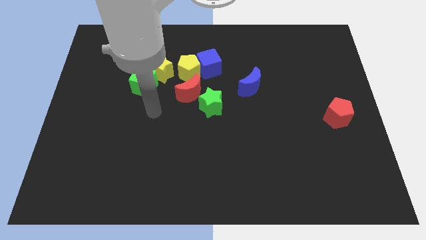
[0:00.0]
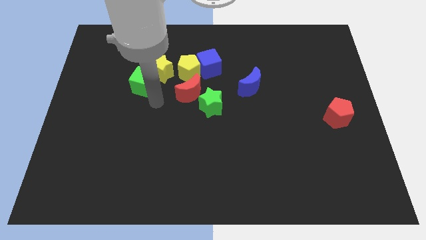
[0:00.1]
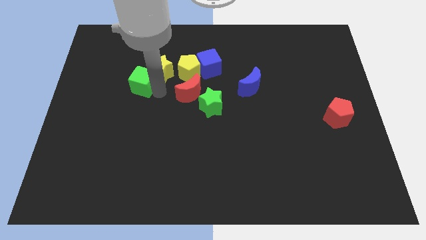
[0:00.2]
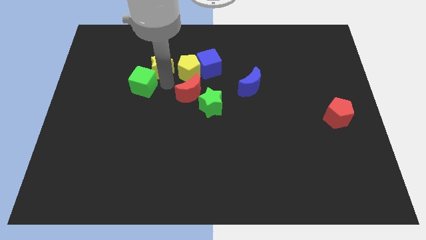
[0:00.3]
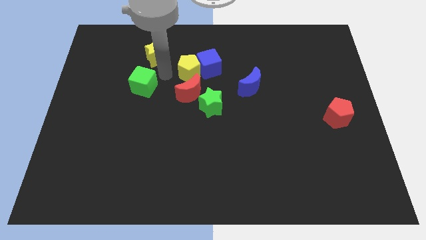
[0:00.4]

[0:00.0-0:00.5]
move the green cube away from the yellow star

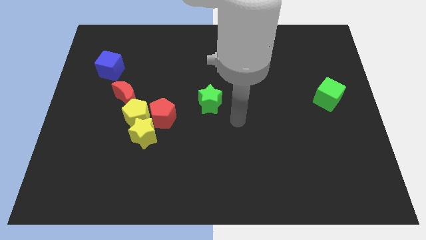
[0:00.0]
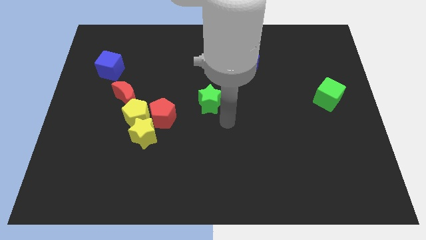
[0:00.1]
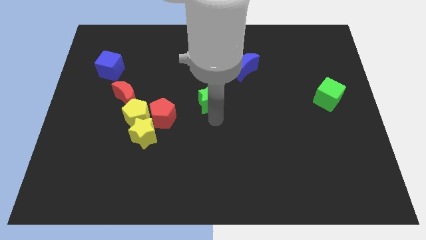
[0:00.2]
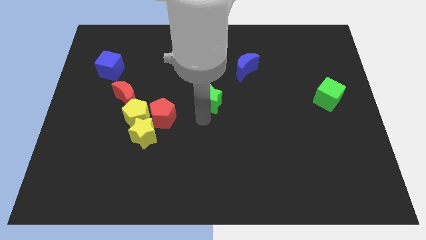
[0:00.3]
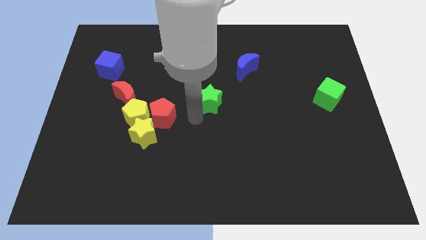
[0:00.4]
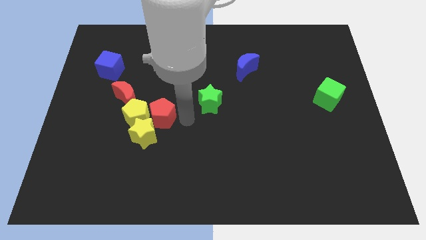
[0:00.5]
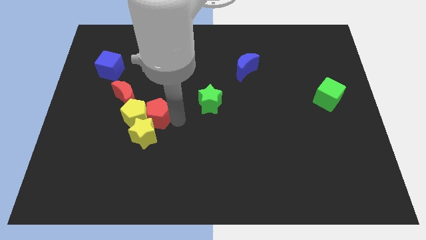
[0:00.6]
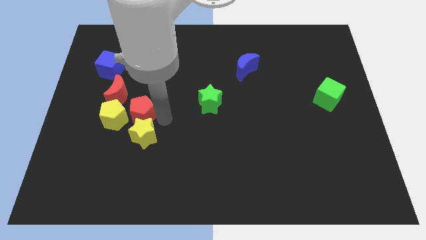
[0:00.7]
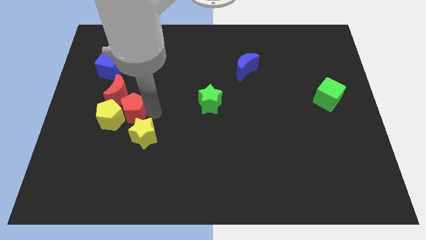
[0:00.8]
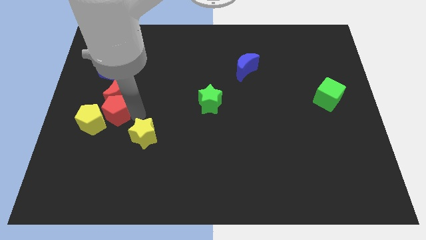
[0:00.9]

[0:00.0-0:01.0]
pull the yellow star apart from the yellow pentagon and red pentagon

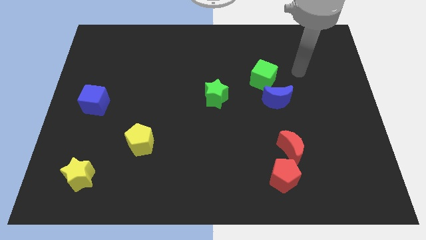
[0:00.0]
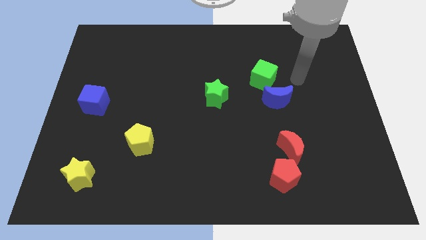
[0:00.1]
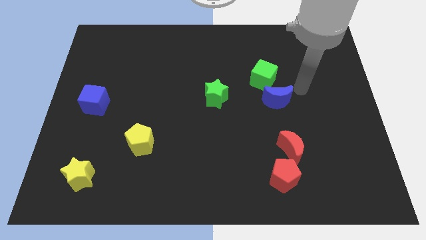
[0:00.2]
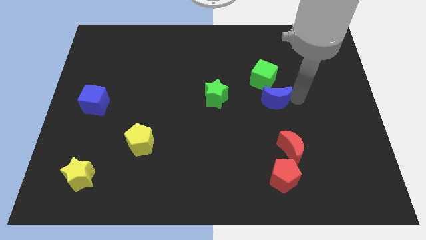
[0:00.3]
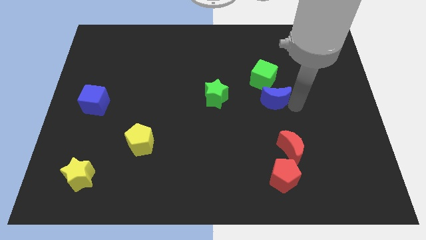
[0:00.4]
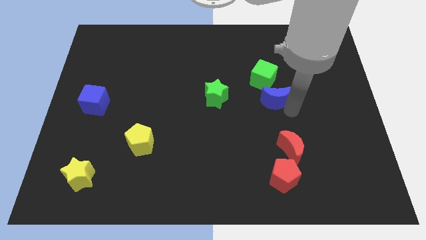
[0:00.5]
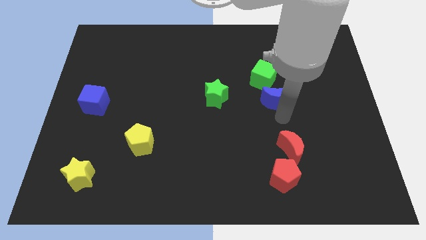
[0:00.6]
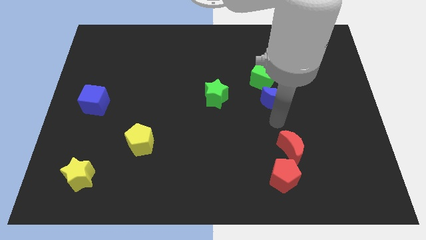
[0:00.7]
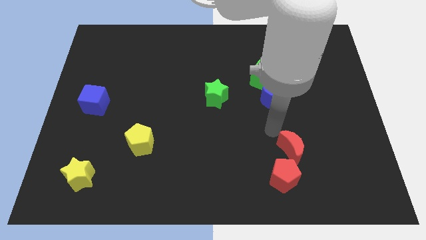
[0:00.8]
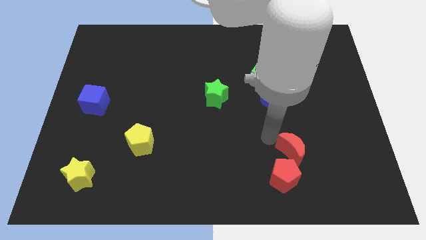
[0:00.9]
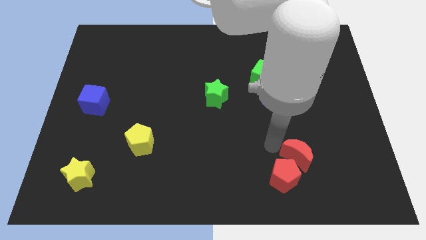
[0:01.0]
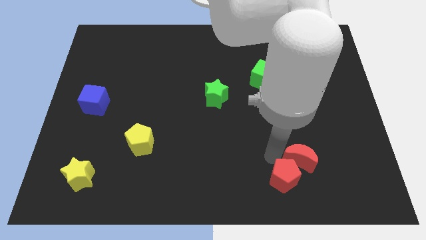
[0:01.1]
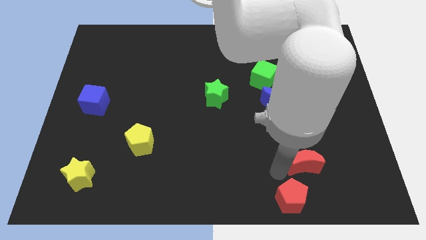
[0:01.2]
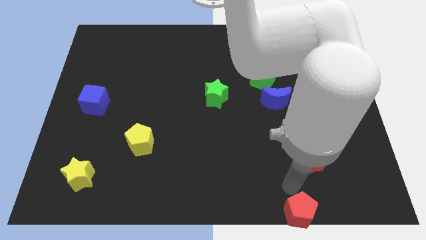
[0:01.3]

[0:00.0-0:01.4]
move the red moon away from the red pentagon

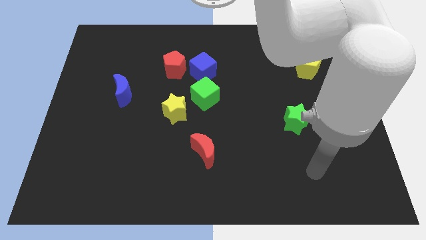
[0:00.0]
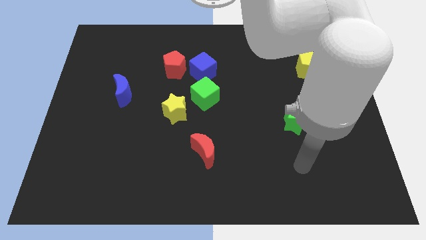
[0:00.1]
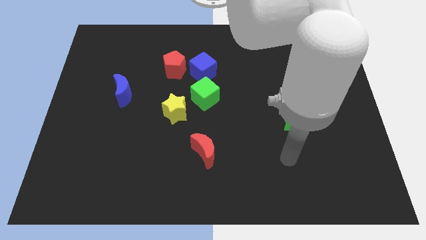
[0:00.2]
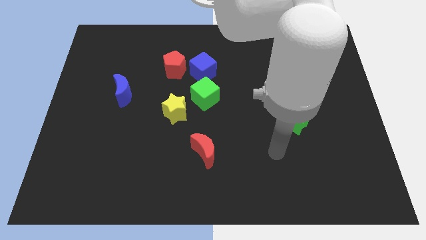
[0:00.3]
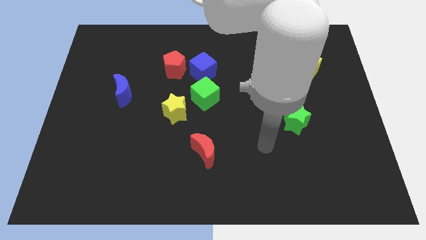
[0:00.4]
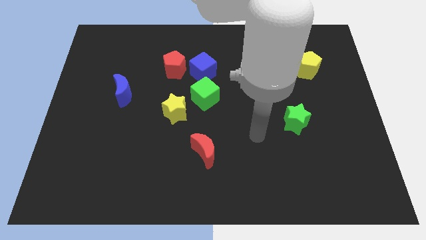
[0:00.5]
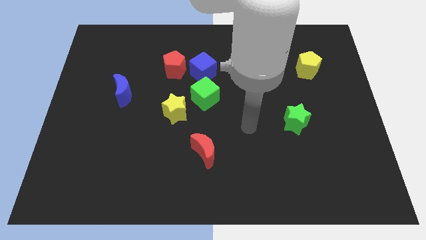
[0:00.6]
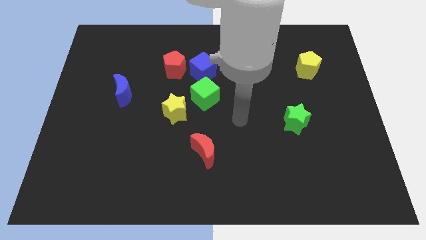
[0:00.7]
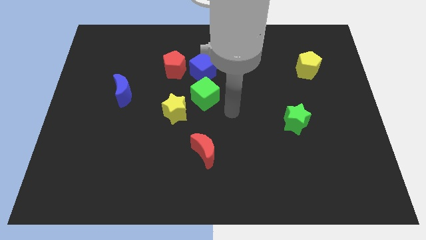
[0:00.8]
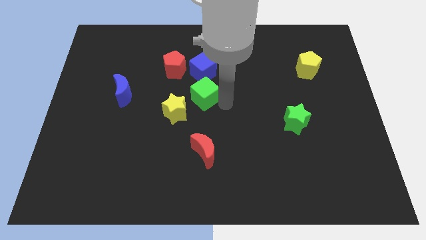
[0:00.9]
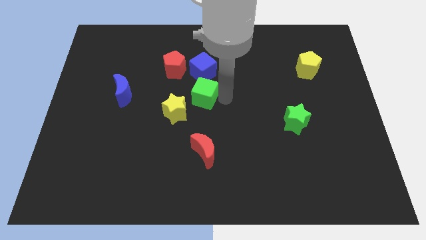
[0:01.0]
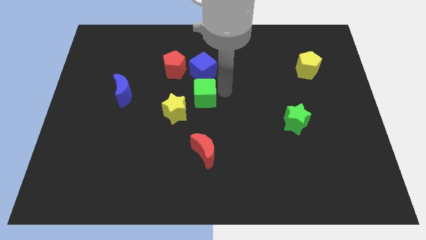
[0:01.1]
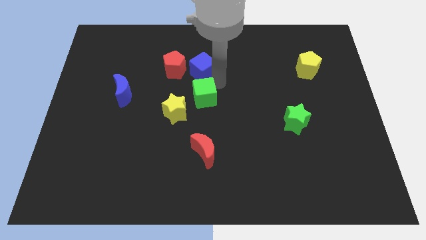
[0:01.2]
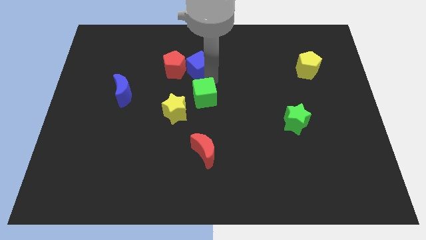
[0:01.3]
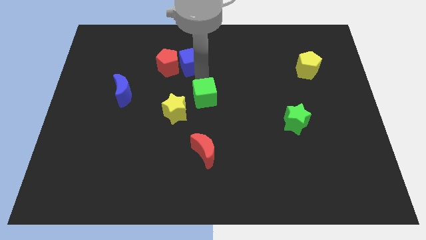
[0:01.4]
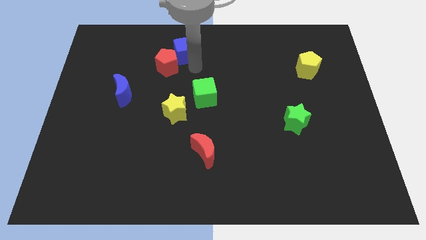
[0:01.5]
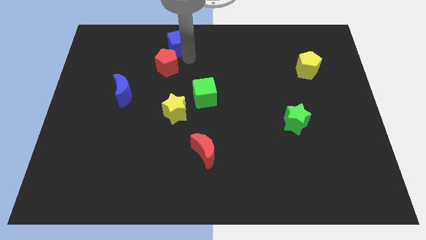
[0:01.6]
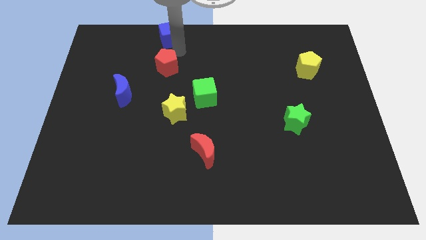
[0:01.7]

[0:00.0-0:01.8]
pull the red pentagon apart from the blue cube

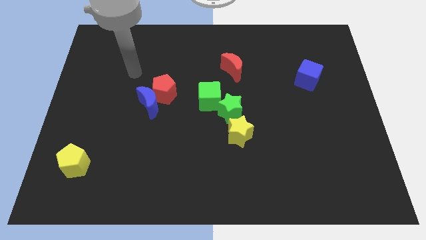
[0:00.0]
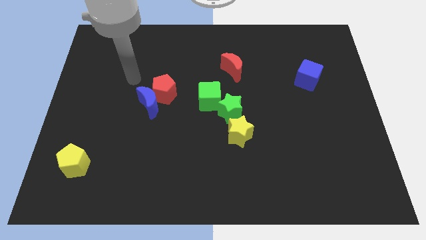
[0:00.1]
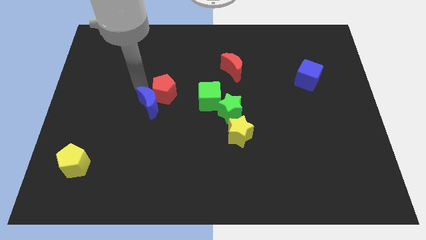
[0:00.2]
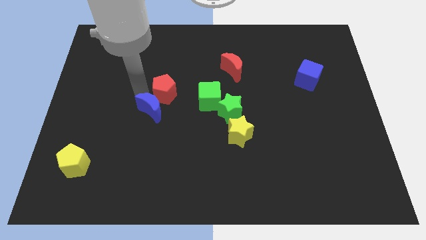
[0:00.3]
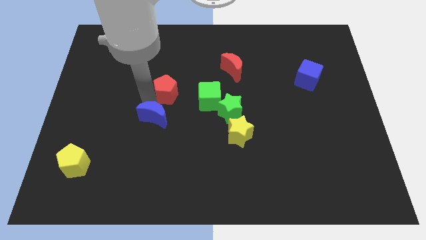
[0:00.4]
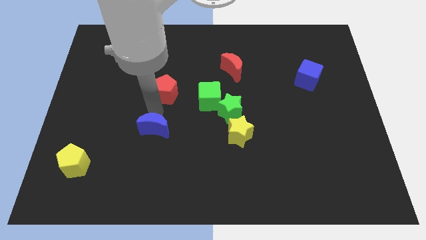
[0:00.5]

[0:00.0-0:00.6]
pull the red pentagon apart from the blue moon

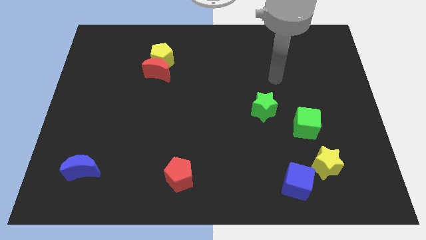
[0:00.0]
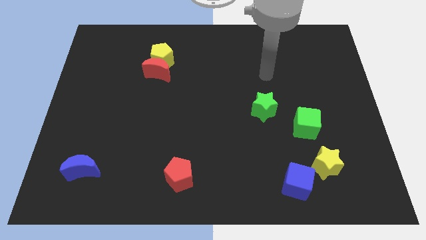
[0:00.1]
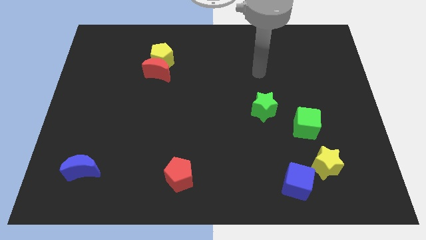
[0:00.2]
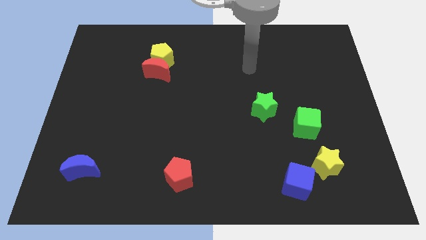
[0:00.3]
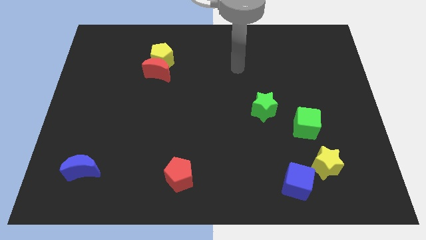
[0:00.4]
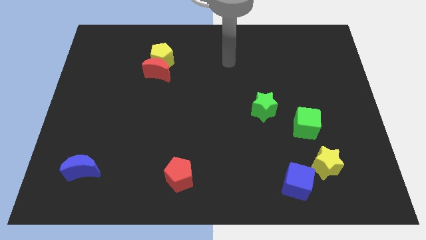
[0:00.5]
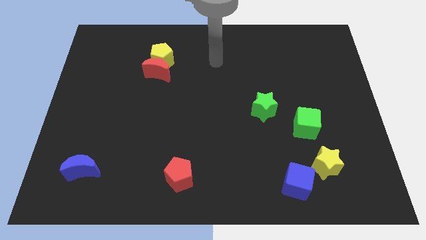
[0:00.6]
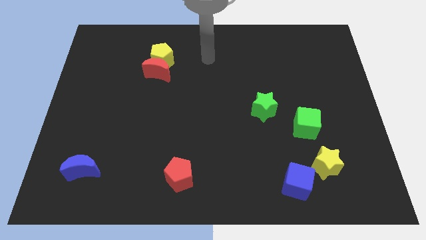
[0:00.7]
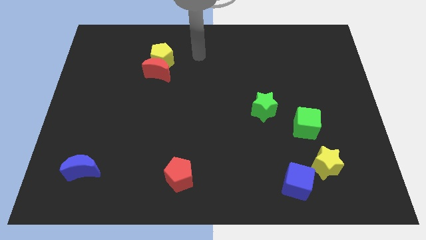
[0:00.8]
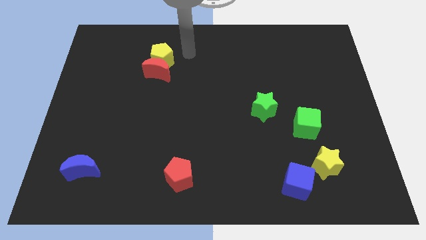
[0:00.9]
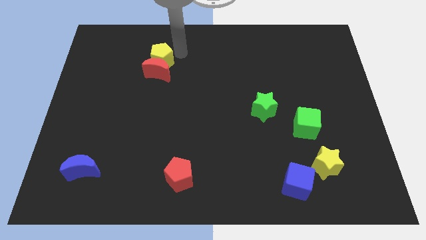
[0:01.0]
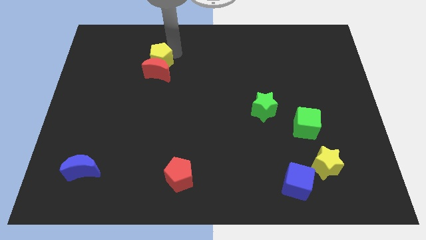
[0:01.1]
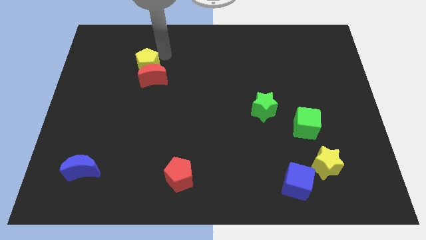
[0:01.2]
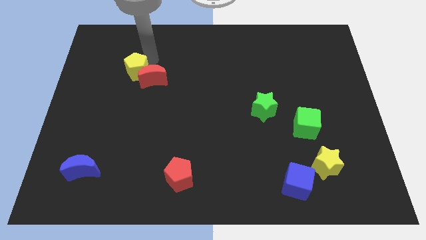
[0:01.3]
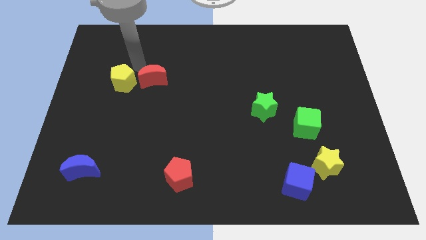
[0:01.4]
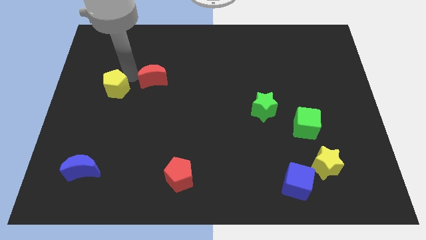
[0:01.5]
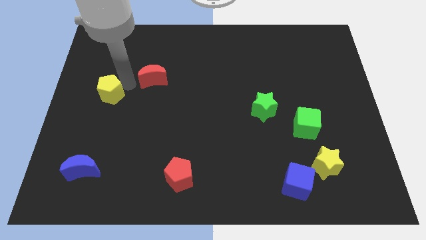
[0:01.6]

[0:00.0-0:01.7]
move the red moon away from the yellow pentagon

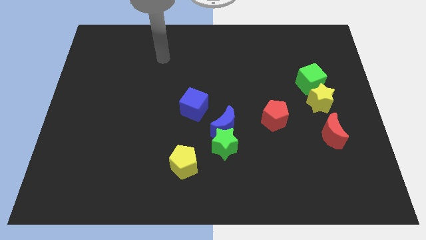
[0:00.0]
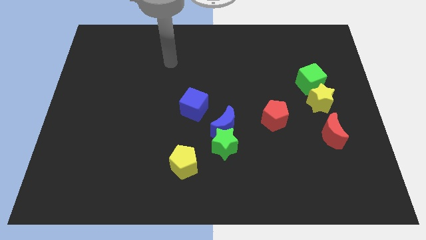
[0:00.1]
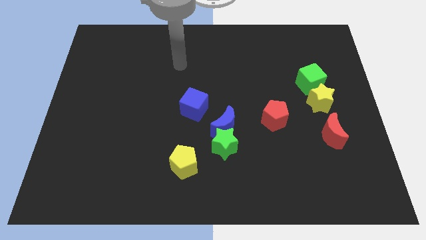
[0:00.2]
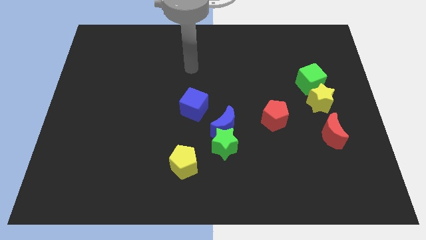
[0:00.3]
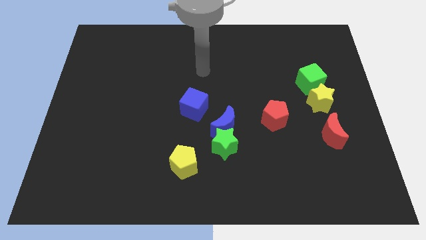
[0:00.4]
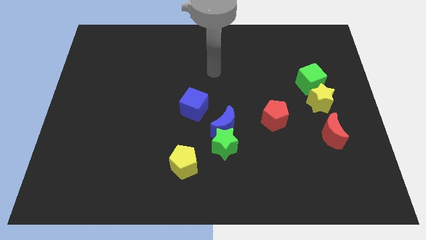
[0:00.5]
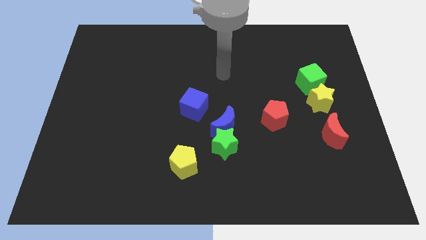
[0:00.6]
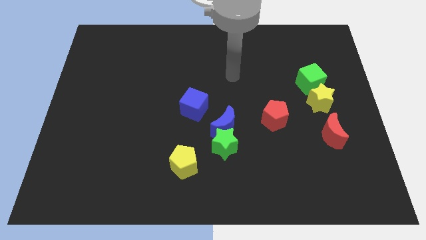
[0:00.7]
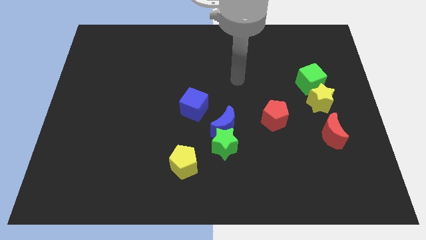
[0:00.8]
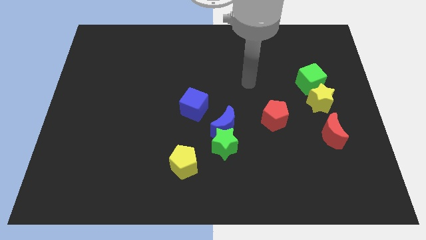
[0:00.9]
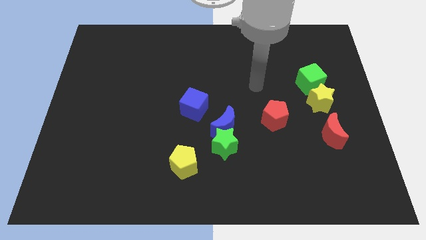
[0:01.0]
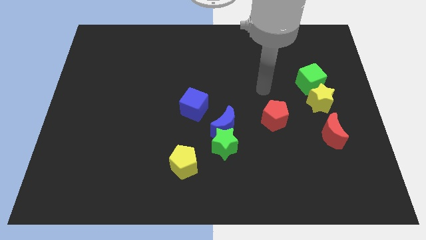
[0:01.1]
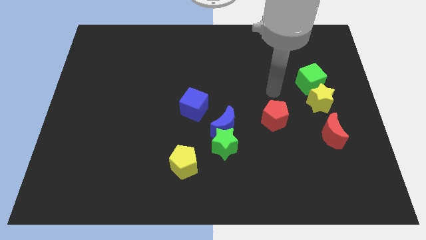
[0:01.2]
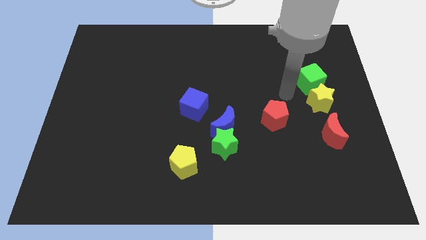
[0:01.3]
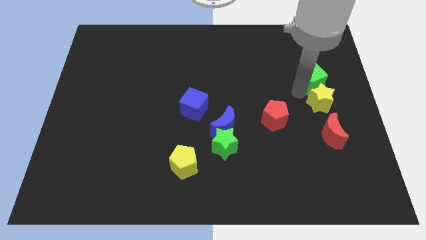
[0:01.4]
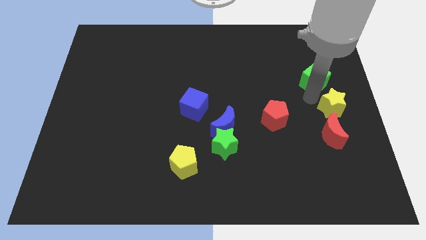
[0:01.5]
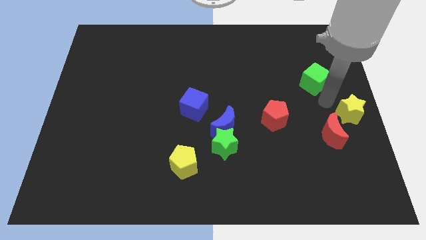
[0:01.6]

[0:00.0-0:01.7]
pull the green cube apart from the yellow star

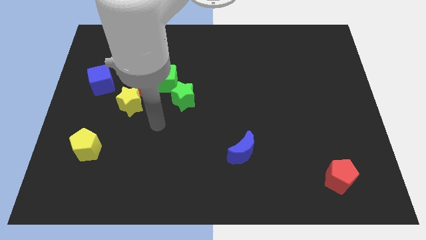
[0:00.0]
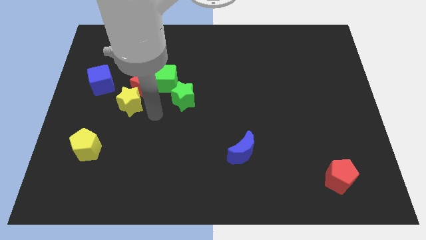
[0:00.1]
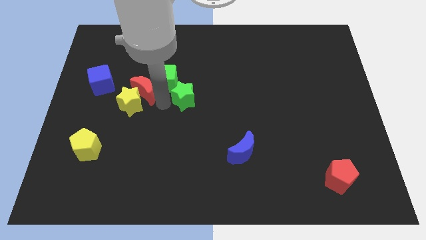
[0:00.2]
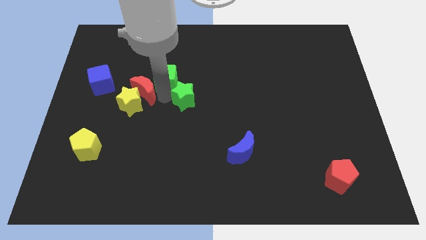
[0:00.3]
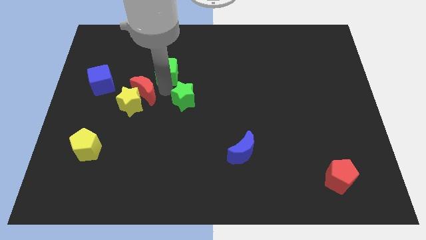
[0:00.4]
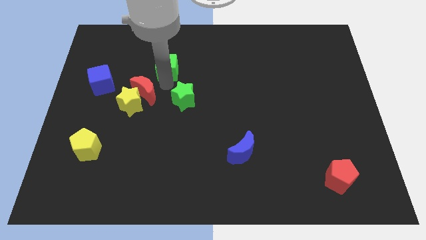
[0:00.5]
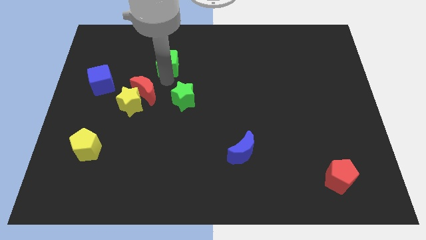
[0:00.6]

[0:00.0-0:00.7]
separate the green cube from the red moon and green star
